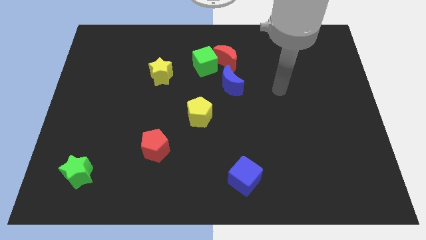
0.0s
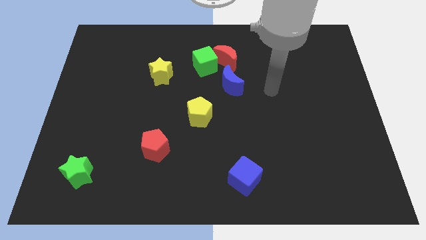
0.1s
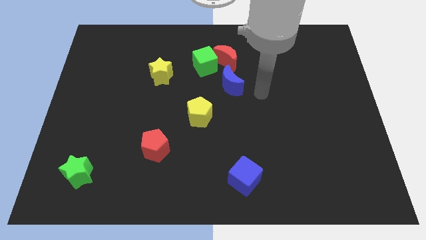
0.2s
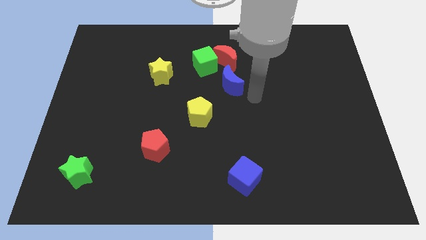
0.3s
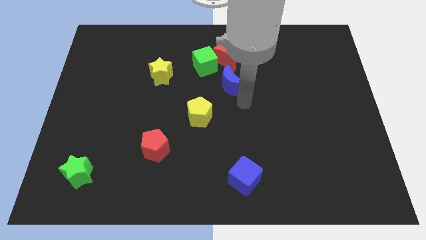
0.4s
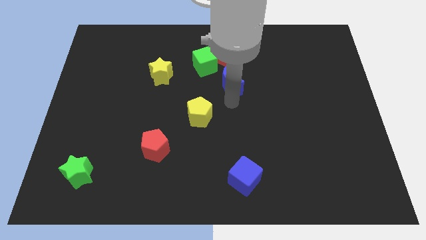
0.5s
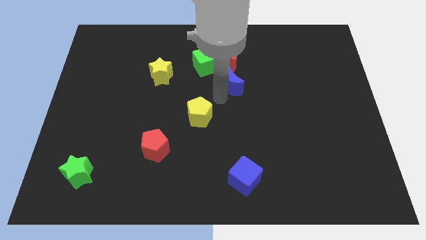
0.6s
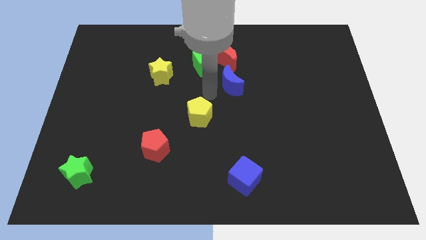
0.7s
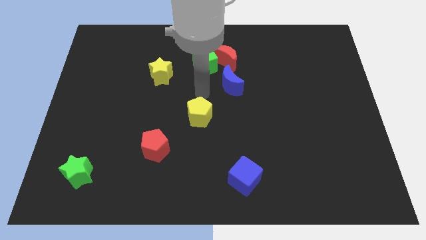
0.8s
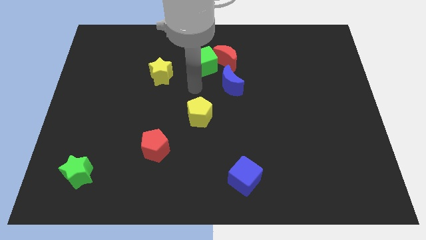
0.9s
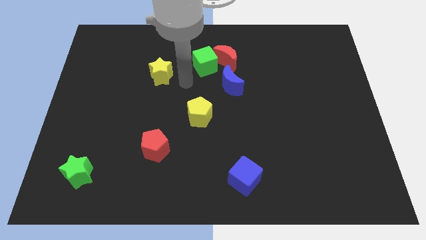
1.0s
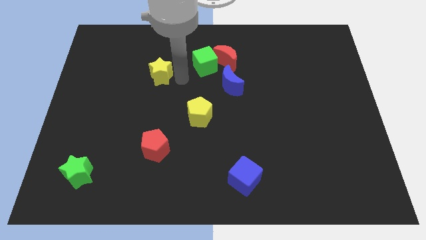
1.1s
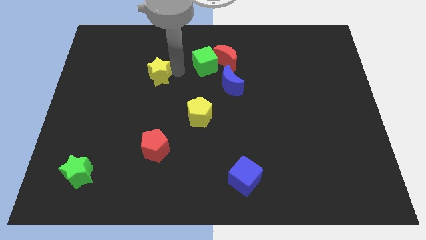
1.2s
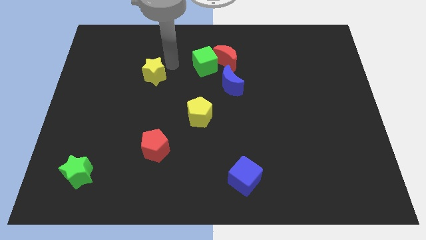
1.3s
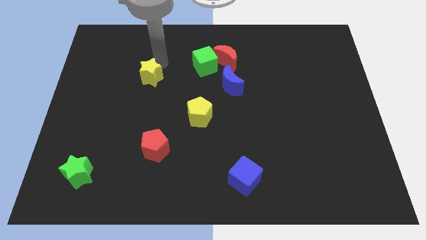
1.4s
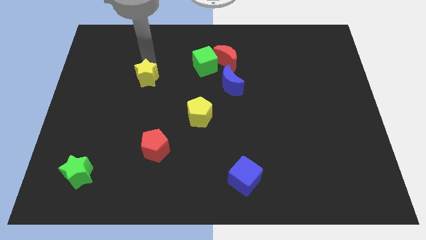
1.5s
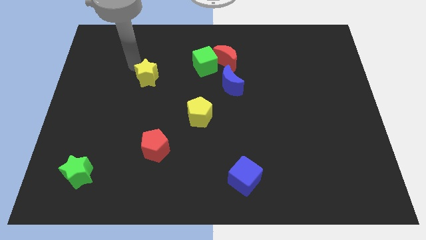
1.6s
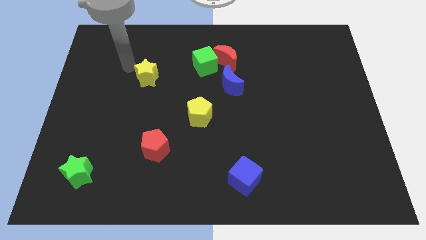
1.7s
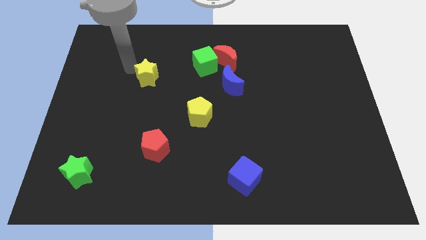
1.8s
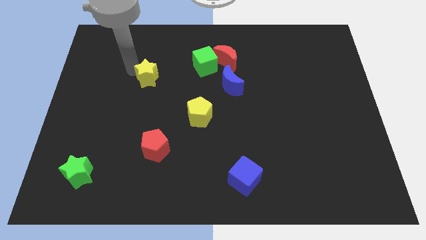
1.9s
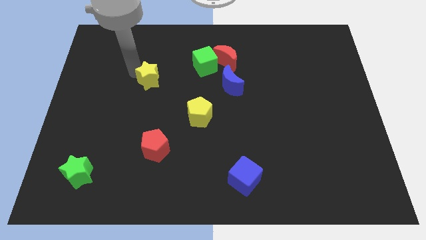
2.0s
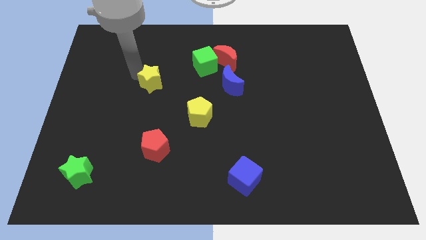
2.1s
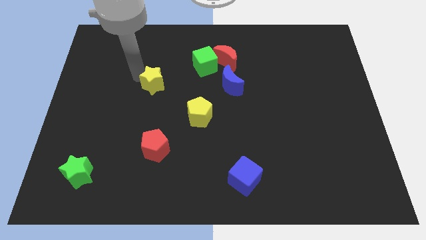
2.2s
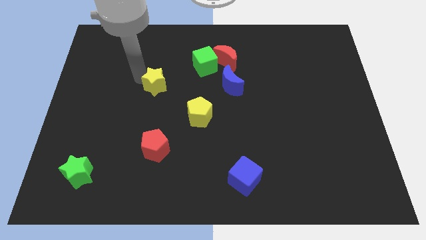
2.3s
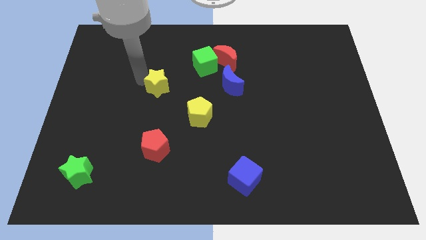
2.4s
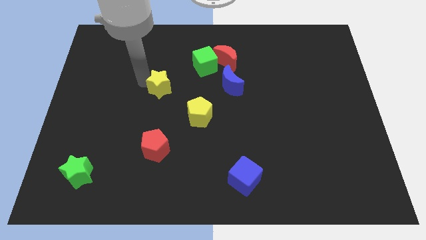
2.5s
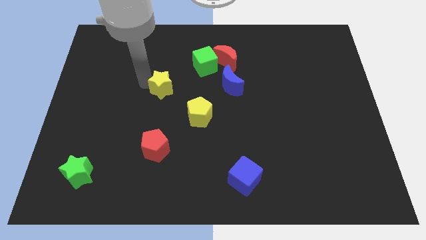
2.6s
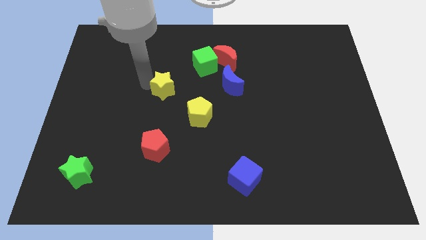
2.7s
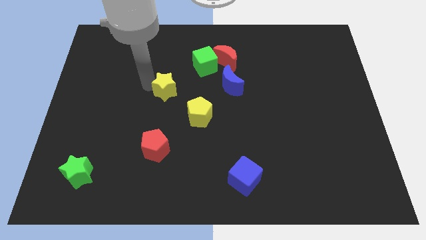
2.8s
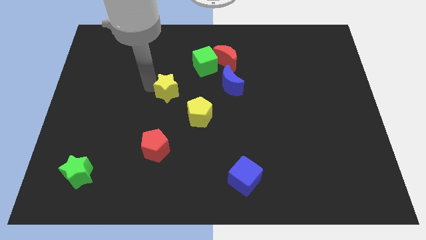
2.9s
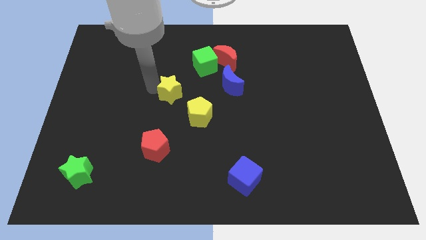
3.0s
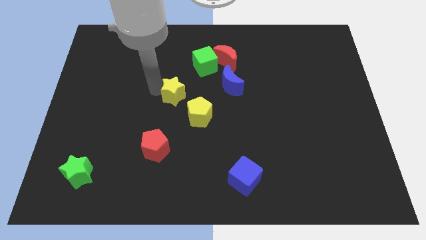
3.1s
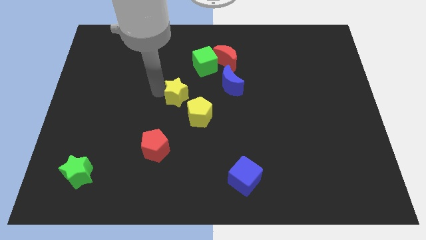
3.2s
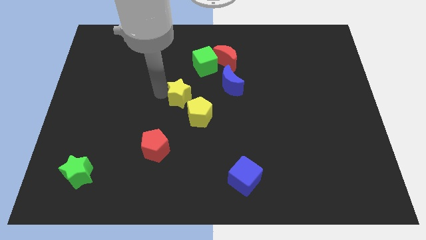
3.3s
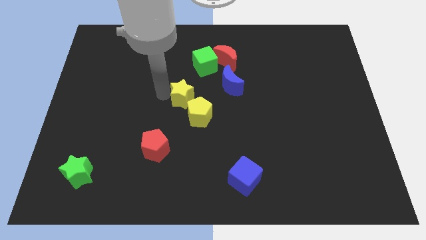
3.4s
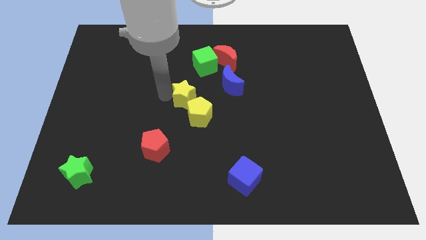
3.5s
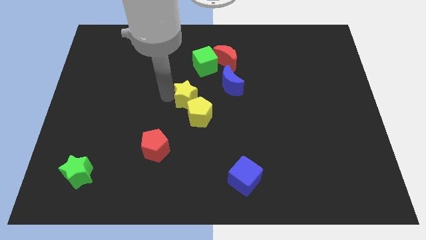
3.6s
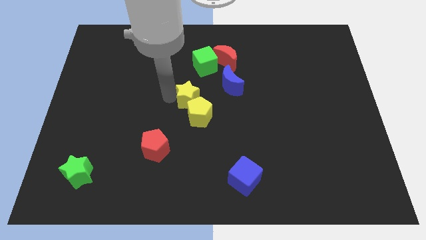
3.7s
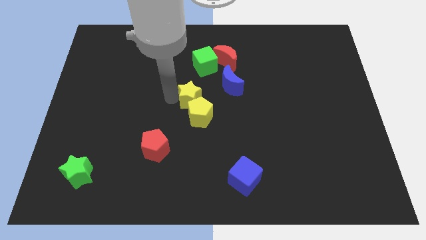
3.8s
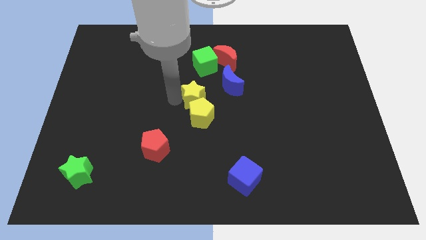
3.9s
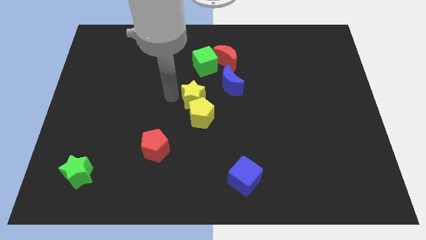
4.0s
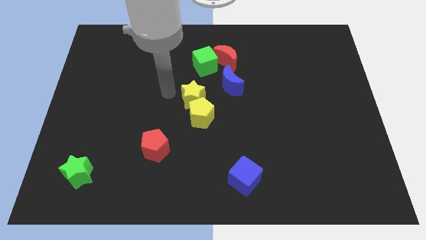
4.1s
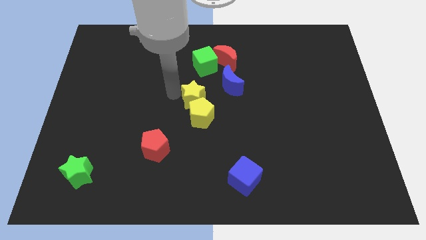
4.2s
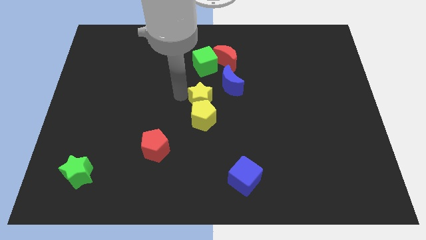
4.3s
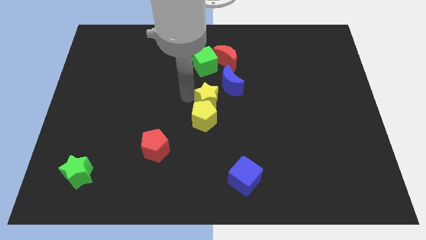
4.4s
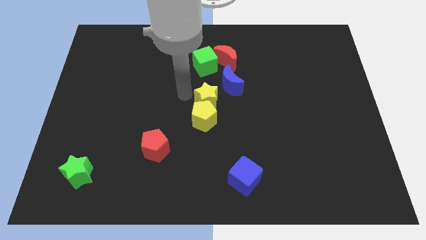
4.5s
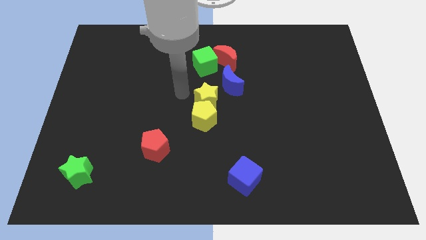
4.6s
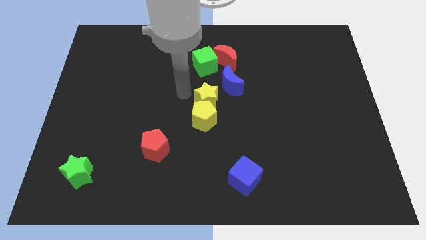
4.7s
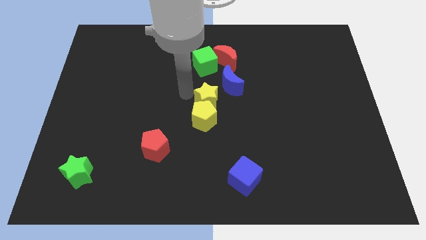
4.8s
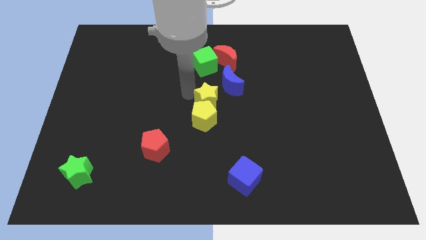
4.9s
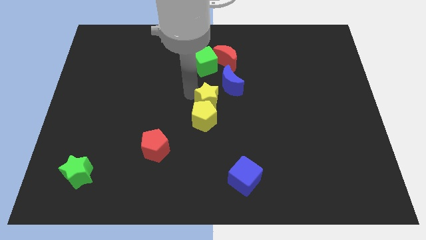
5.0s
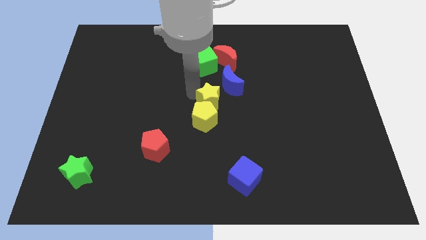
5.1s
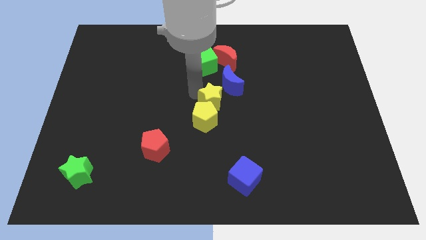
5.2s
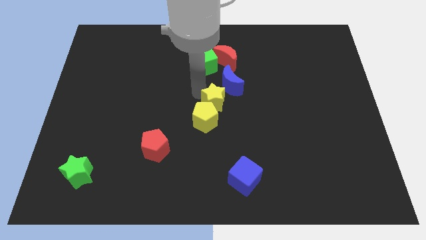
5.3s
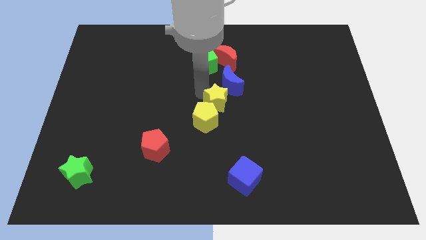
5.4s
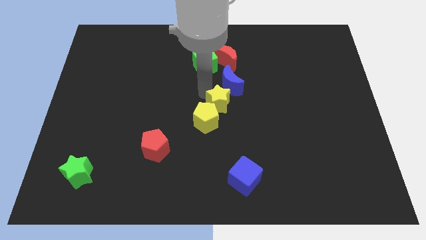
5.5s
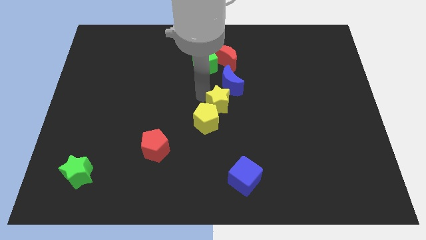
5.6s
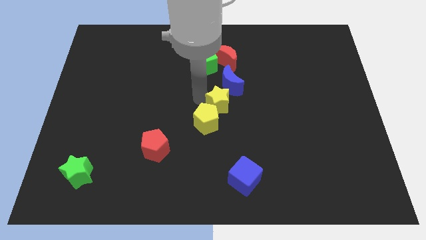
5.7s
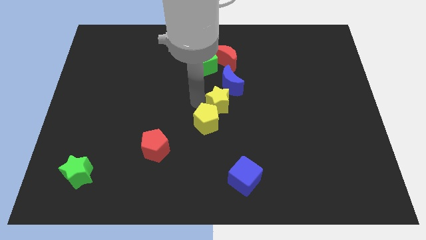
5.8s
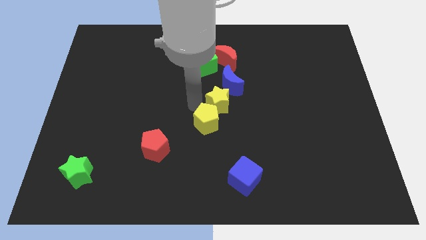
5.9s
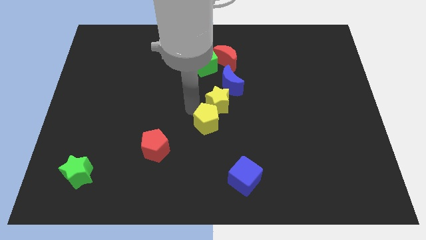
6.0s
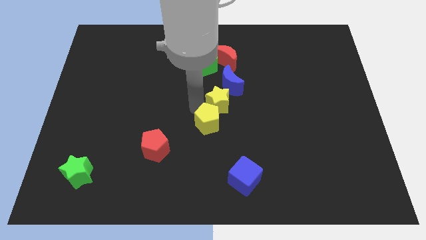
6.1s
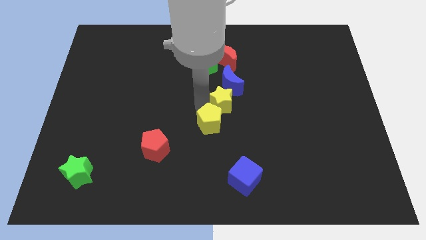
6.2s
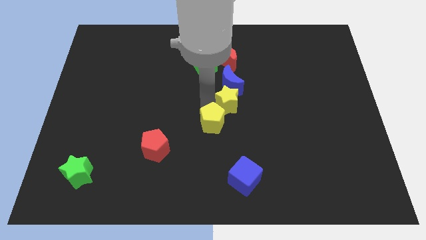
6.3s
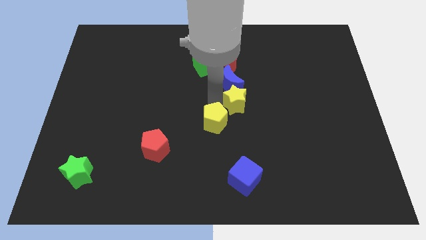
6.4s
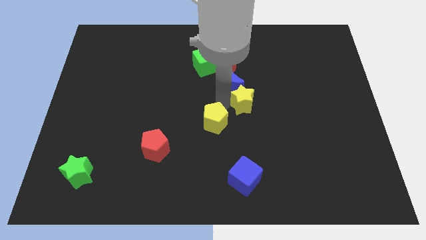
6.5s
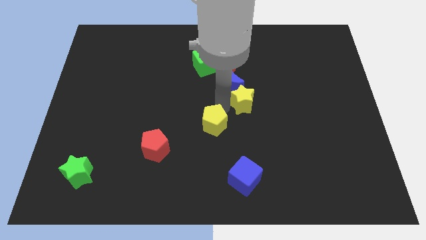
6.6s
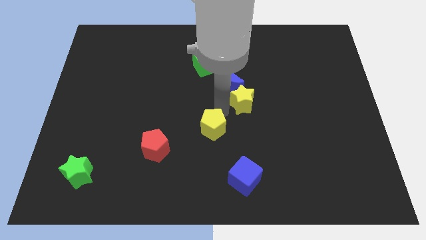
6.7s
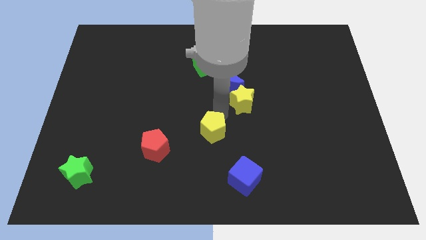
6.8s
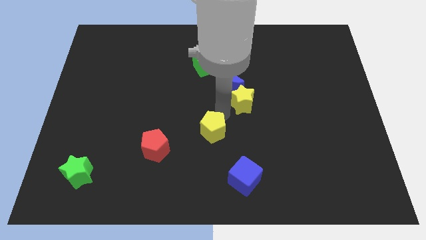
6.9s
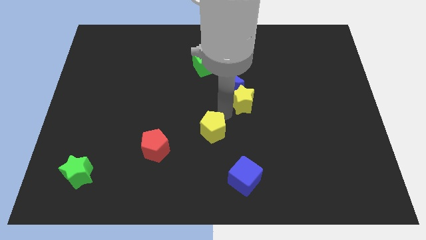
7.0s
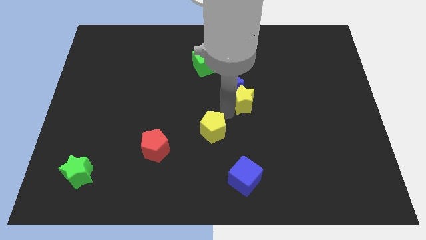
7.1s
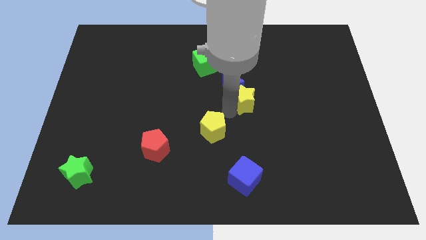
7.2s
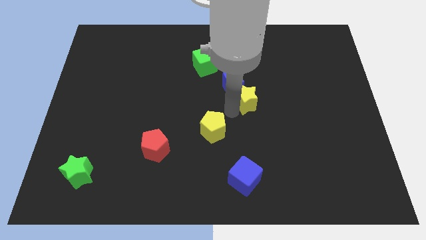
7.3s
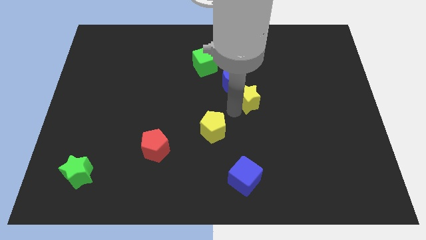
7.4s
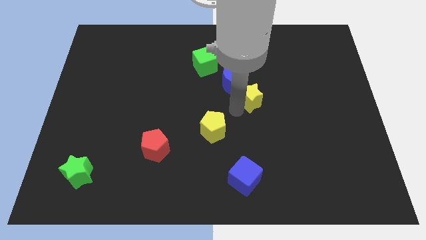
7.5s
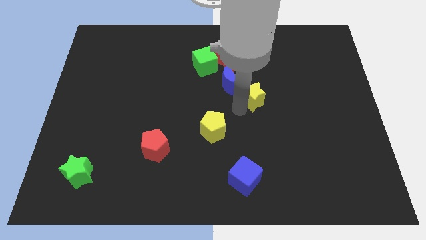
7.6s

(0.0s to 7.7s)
slide the yellow star to the right
